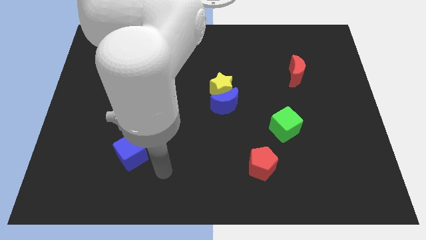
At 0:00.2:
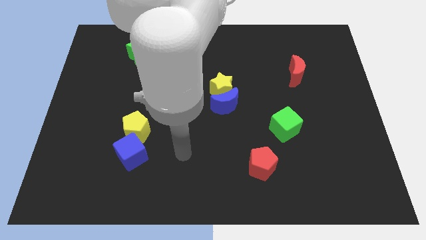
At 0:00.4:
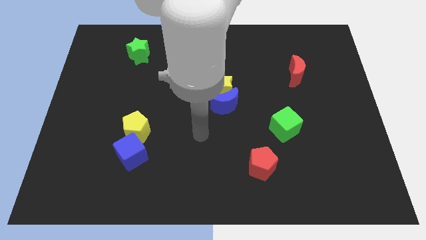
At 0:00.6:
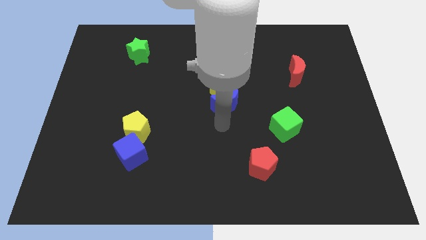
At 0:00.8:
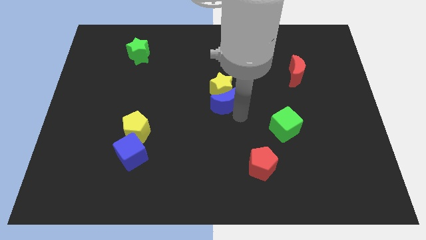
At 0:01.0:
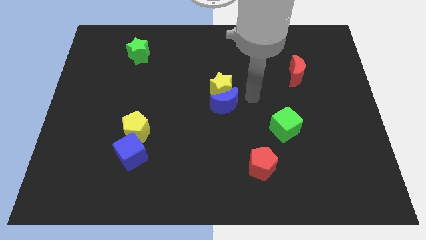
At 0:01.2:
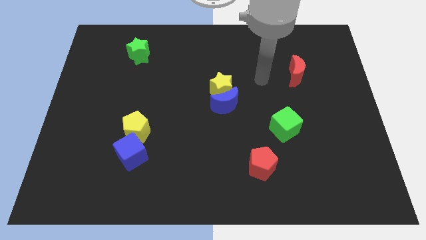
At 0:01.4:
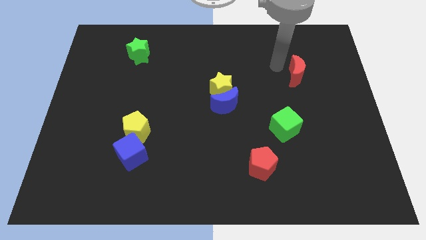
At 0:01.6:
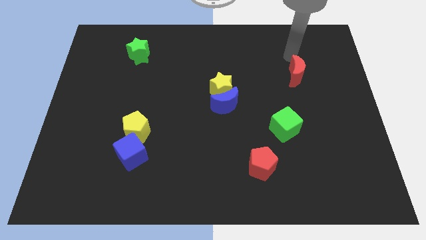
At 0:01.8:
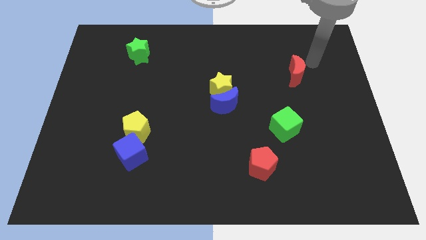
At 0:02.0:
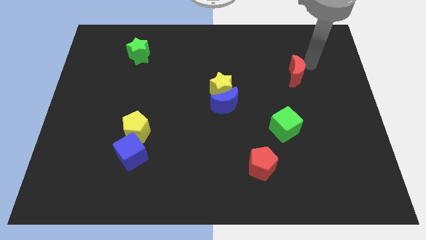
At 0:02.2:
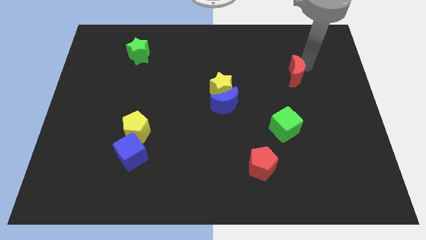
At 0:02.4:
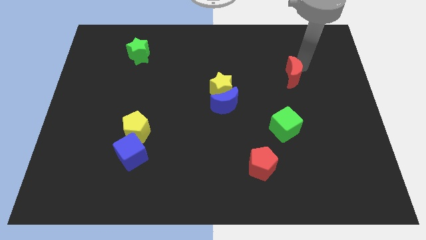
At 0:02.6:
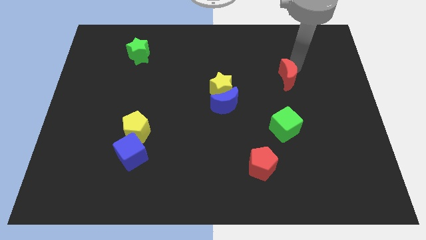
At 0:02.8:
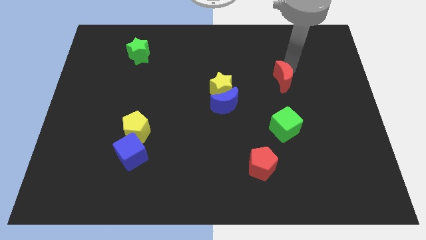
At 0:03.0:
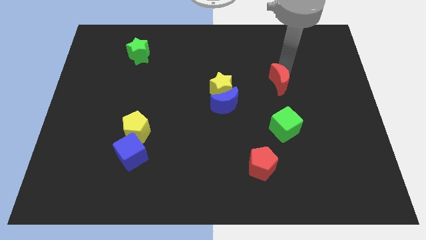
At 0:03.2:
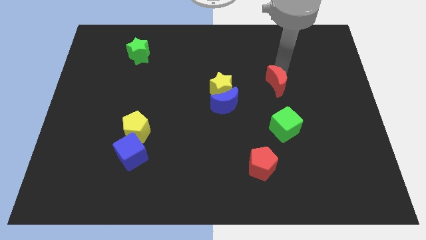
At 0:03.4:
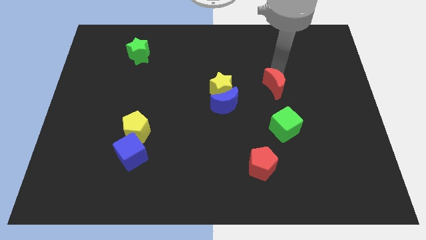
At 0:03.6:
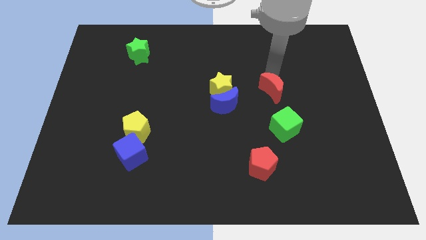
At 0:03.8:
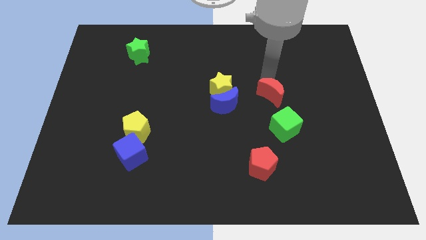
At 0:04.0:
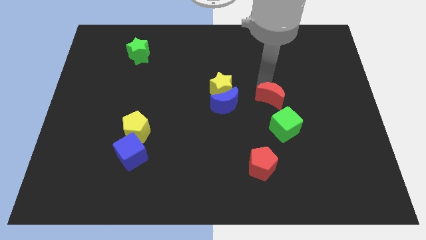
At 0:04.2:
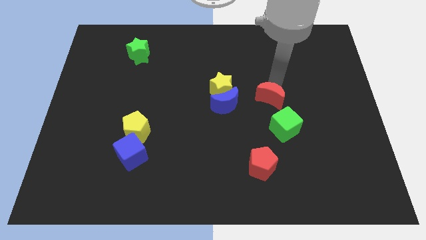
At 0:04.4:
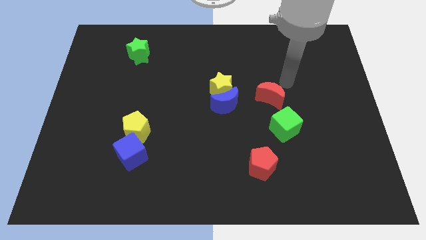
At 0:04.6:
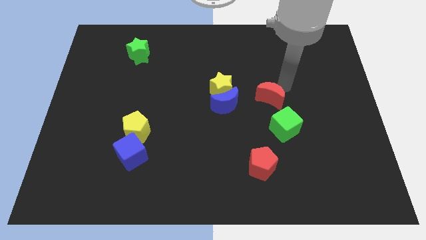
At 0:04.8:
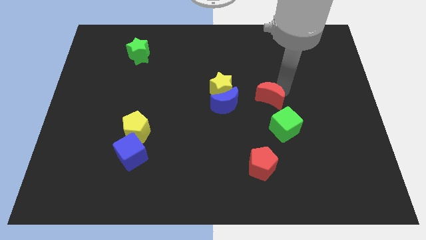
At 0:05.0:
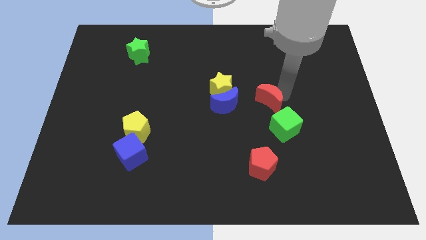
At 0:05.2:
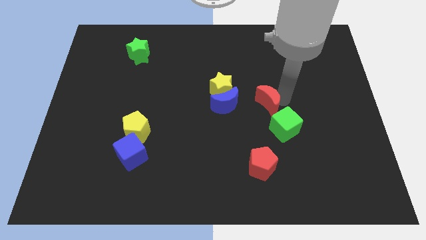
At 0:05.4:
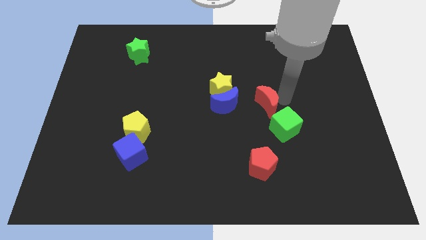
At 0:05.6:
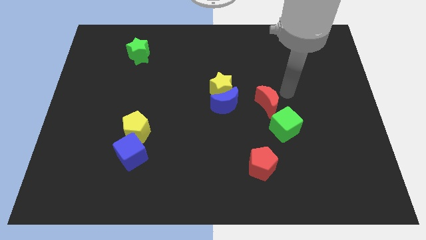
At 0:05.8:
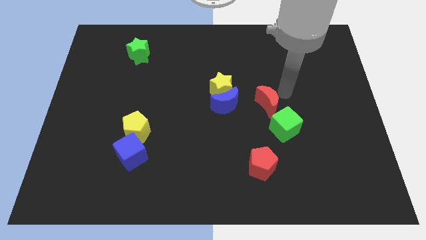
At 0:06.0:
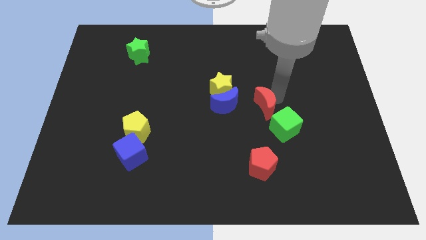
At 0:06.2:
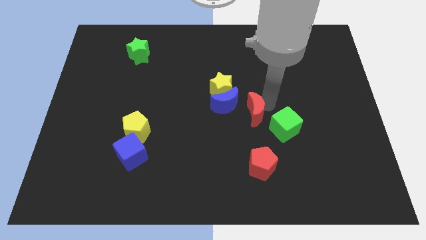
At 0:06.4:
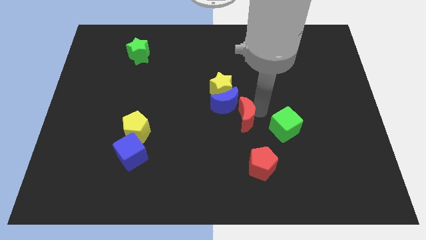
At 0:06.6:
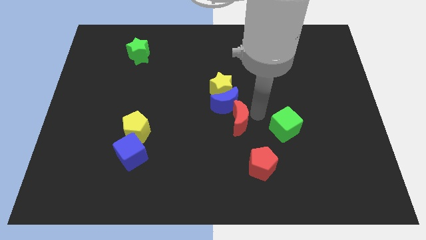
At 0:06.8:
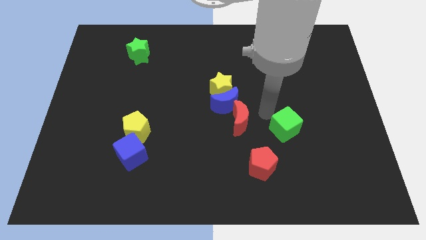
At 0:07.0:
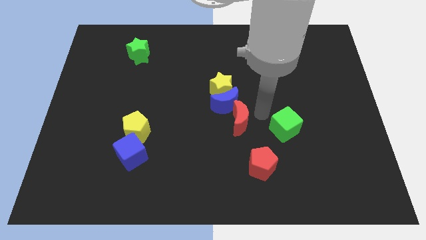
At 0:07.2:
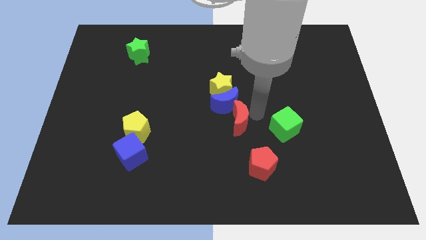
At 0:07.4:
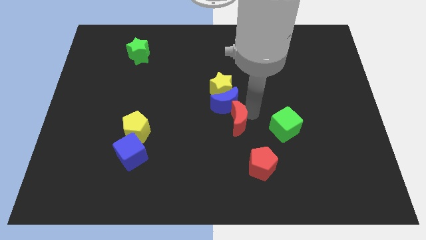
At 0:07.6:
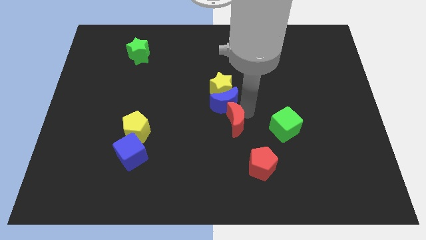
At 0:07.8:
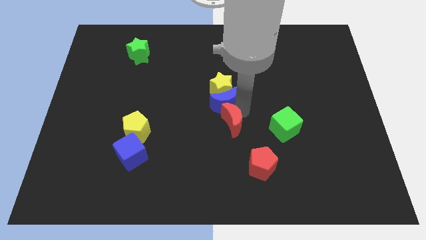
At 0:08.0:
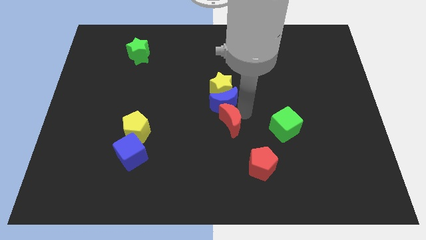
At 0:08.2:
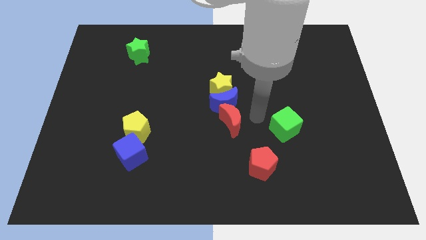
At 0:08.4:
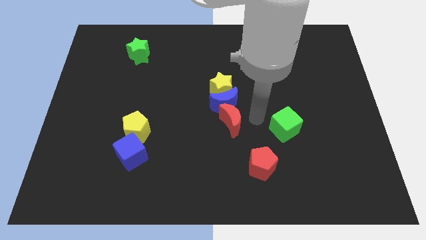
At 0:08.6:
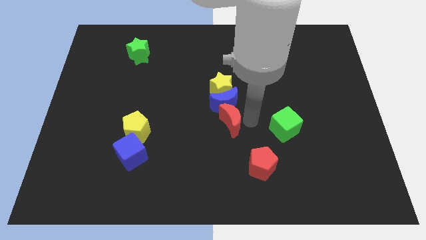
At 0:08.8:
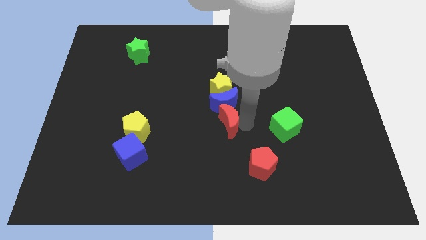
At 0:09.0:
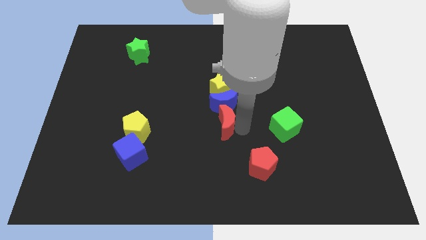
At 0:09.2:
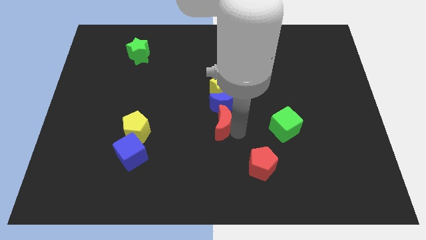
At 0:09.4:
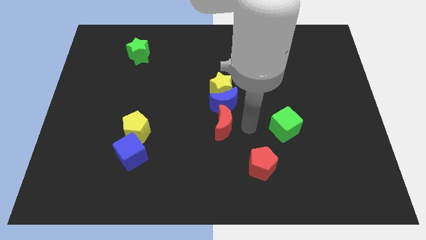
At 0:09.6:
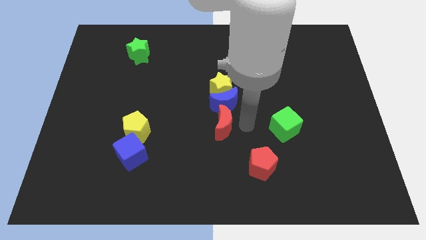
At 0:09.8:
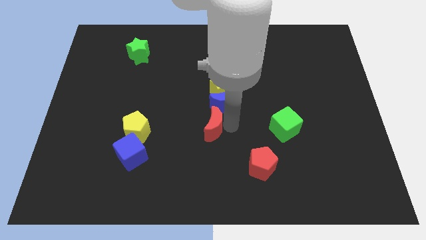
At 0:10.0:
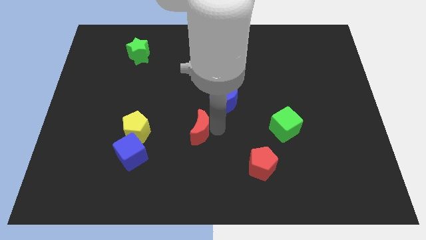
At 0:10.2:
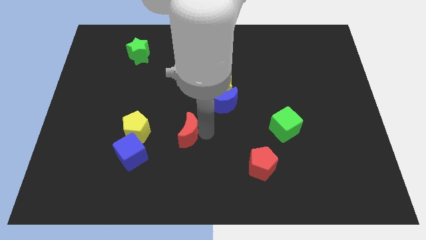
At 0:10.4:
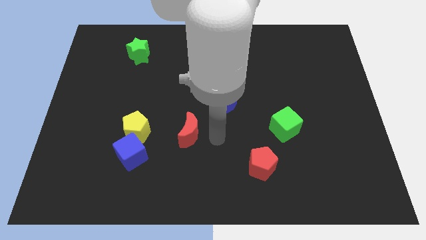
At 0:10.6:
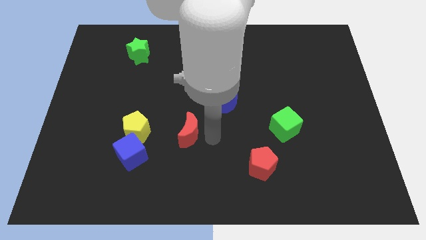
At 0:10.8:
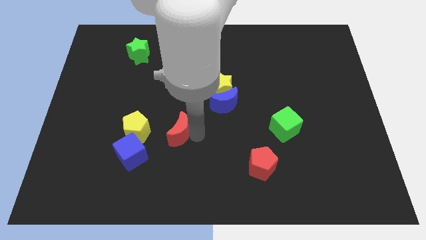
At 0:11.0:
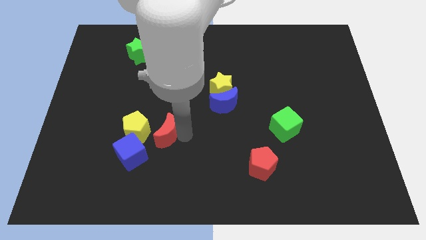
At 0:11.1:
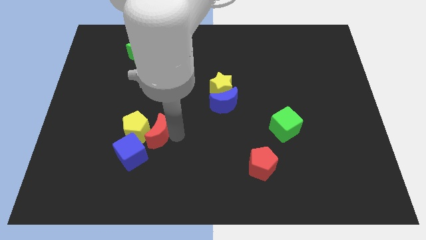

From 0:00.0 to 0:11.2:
slide the red moon towards the yellow pentagon

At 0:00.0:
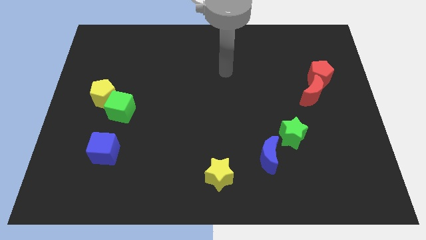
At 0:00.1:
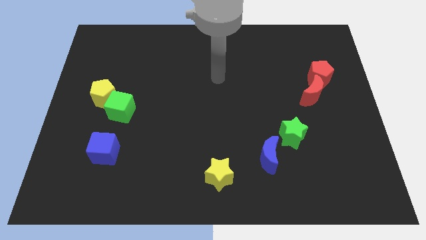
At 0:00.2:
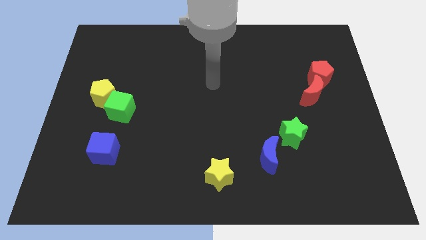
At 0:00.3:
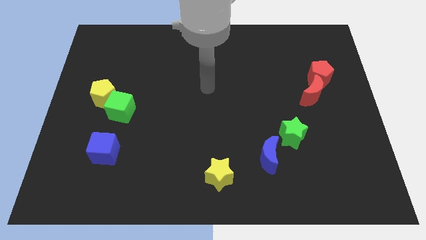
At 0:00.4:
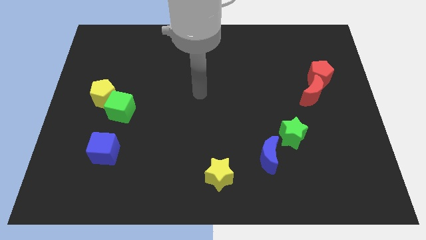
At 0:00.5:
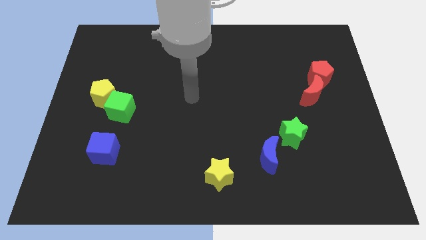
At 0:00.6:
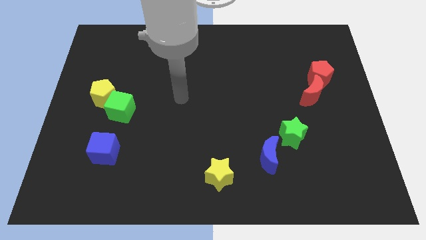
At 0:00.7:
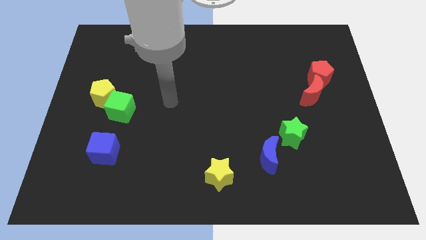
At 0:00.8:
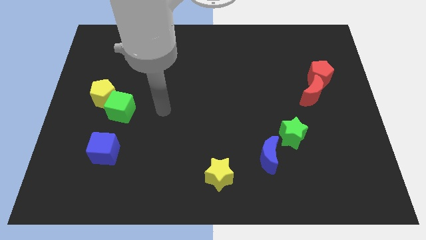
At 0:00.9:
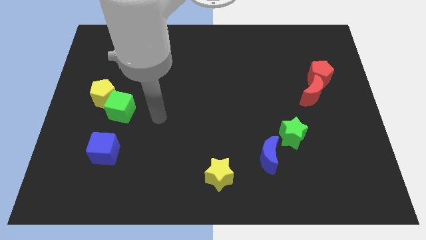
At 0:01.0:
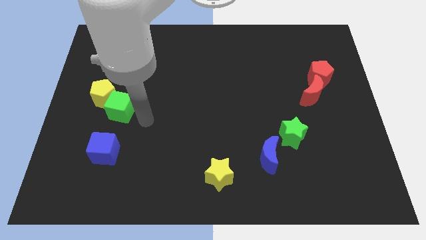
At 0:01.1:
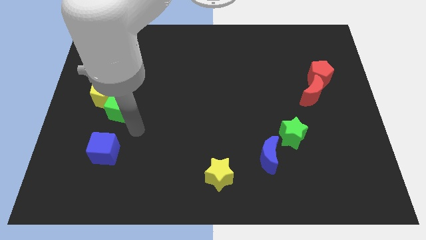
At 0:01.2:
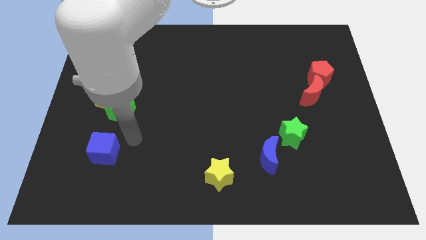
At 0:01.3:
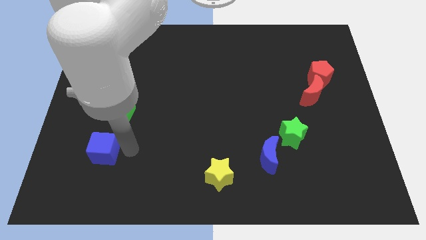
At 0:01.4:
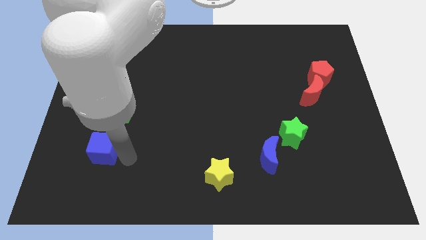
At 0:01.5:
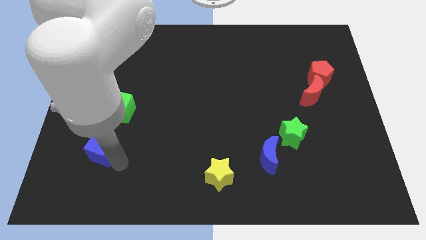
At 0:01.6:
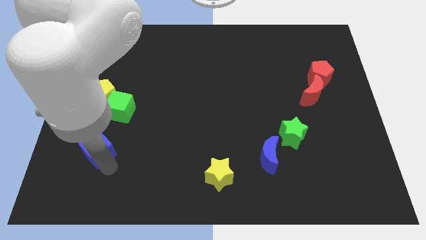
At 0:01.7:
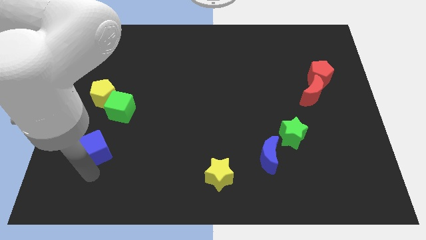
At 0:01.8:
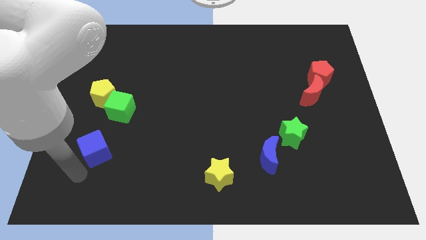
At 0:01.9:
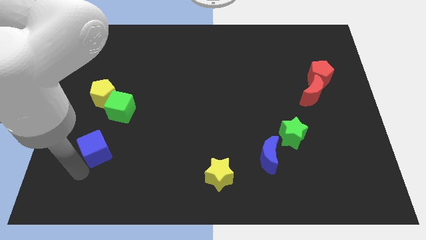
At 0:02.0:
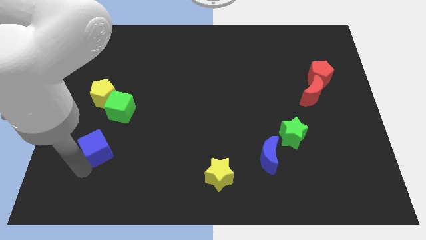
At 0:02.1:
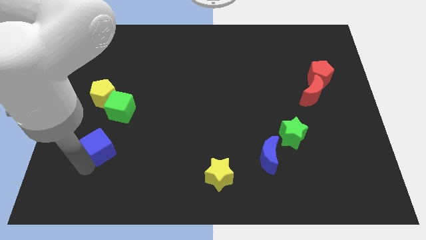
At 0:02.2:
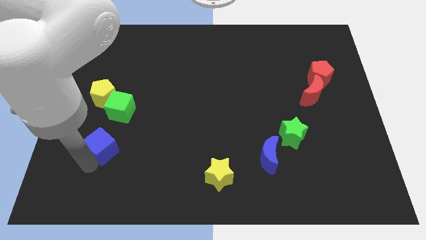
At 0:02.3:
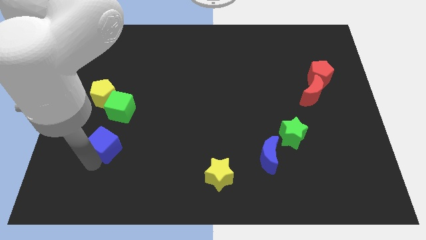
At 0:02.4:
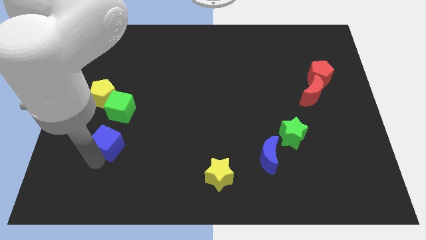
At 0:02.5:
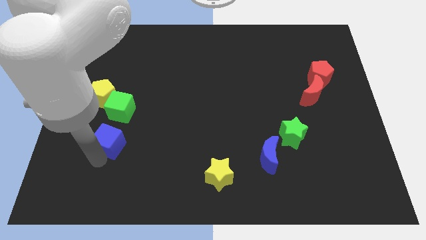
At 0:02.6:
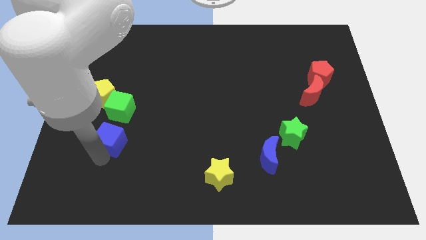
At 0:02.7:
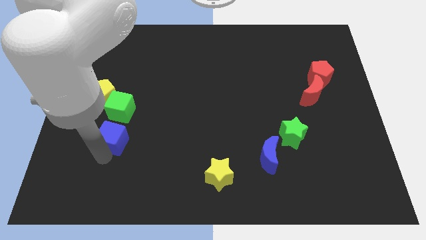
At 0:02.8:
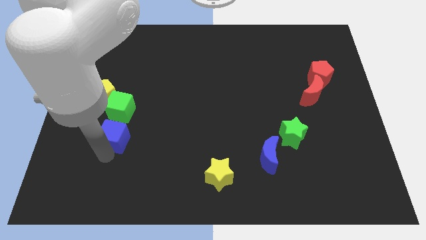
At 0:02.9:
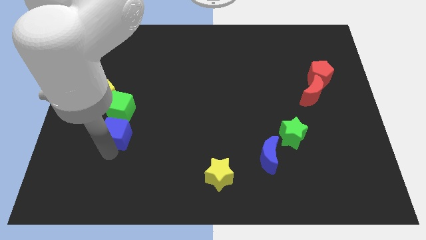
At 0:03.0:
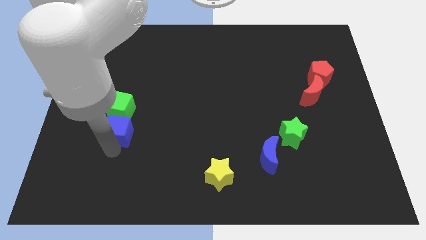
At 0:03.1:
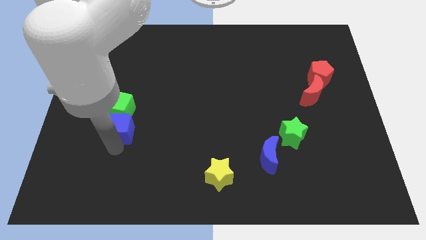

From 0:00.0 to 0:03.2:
slide the blue cube to the green cube
